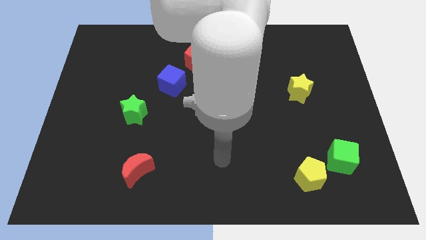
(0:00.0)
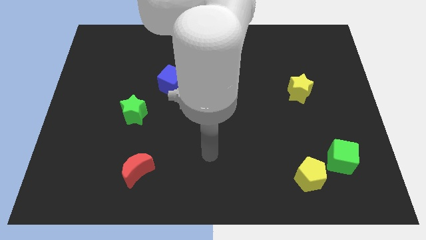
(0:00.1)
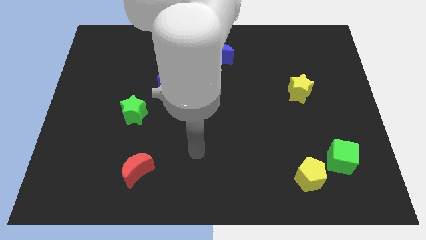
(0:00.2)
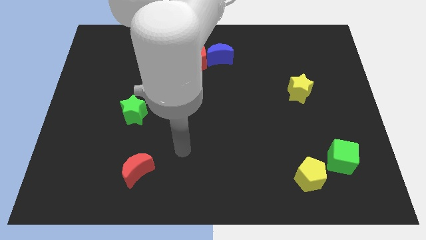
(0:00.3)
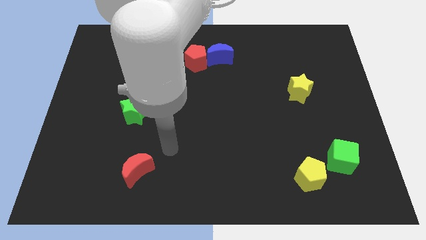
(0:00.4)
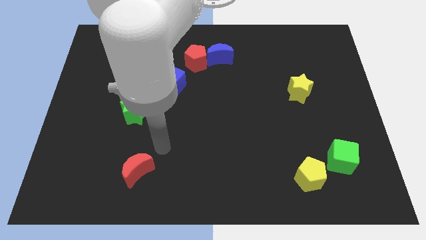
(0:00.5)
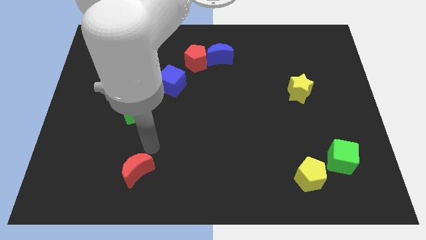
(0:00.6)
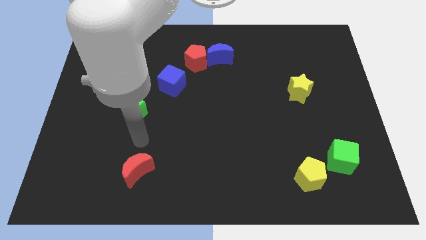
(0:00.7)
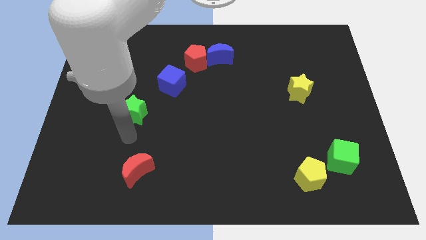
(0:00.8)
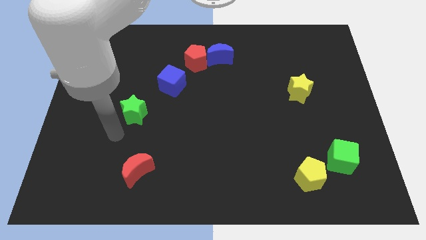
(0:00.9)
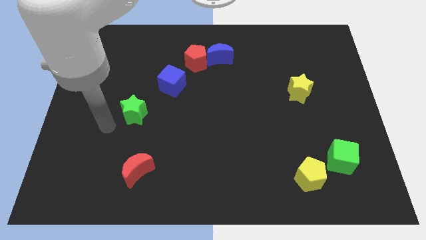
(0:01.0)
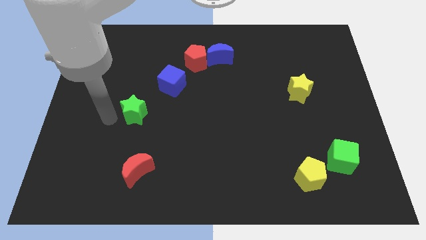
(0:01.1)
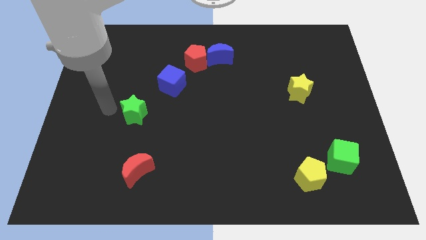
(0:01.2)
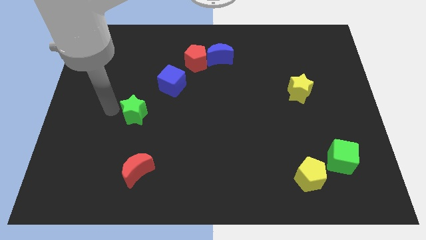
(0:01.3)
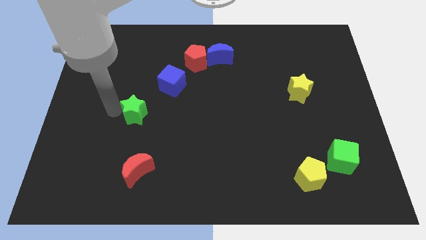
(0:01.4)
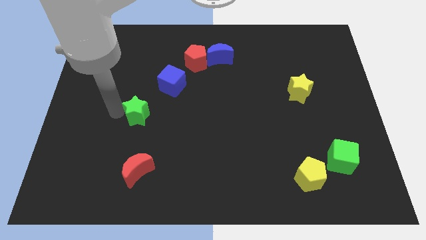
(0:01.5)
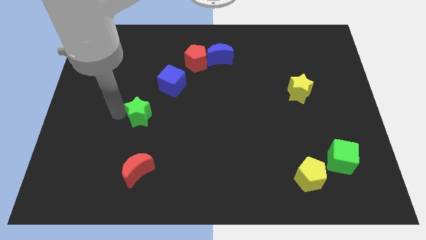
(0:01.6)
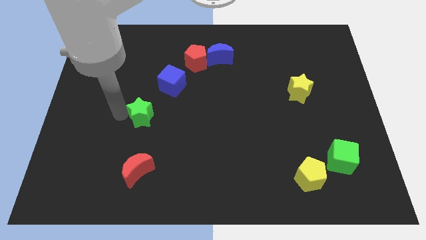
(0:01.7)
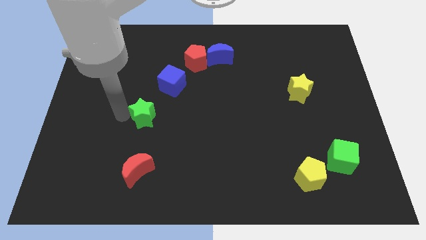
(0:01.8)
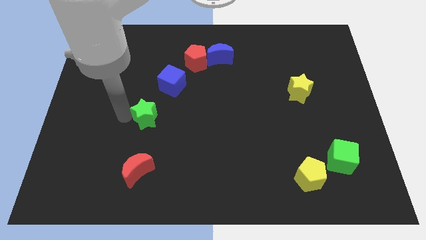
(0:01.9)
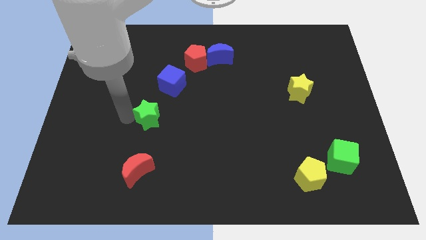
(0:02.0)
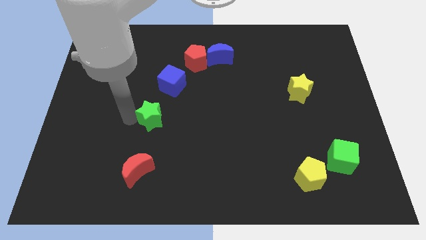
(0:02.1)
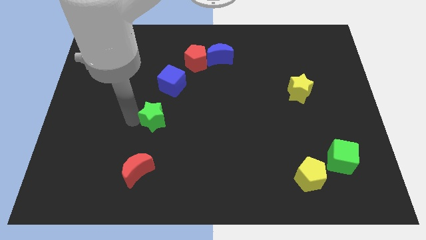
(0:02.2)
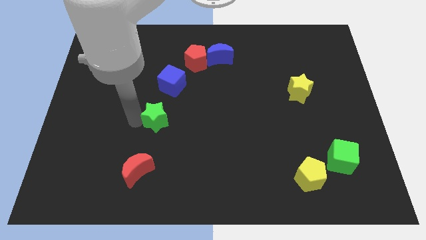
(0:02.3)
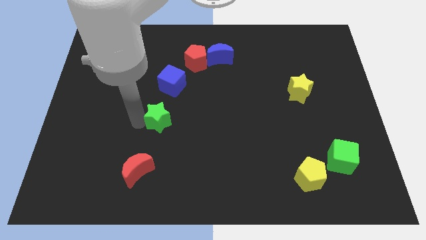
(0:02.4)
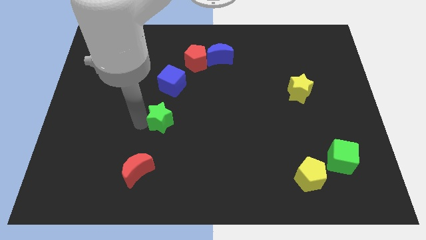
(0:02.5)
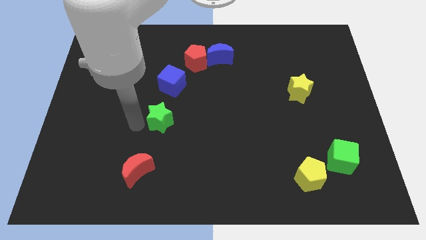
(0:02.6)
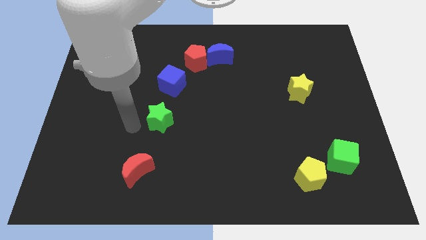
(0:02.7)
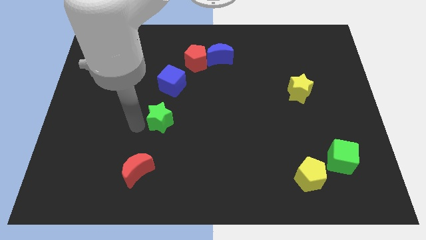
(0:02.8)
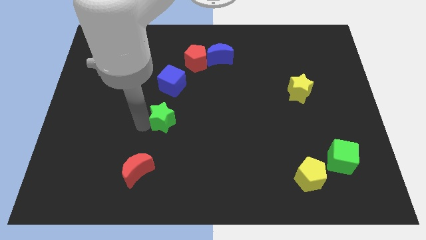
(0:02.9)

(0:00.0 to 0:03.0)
push the green star right somewhat

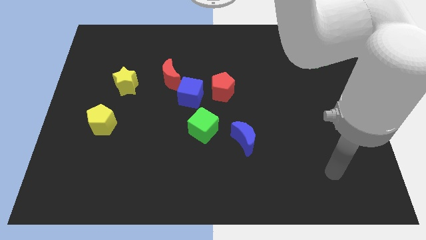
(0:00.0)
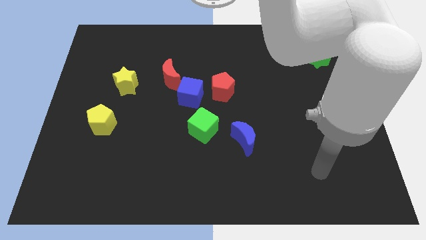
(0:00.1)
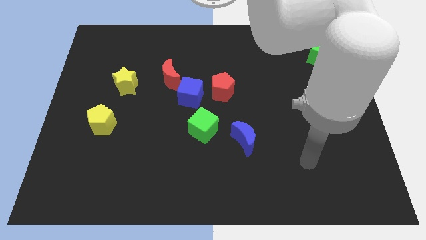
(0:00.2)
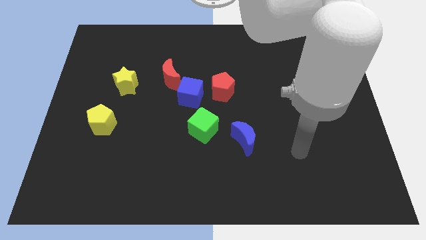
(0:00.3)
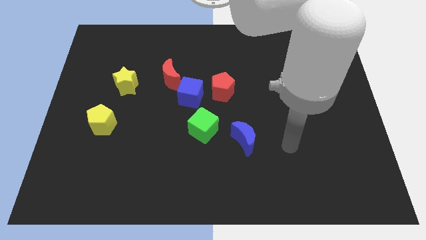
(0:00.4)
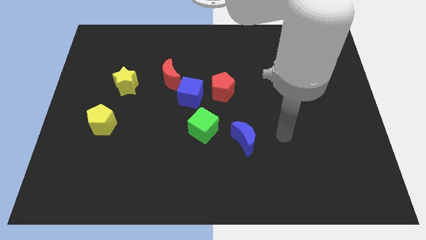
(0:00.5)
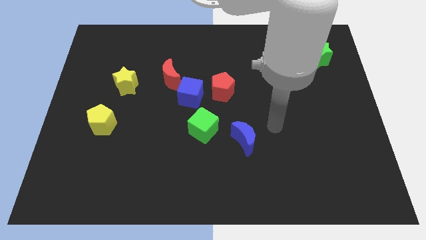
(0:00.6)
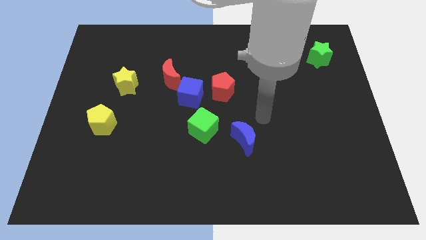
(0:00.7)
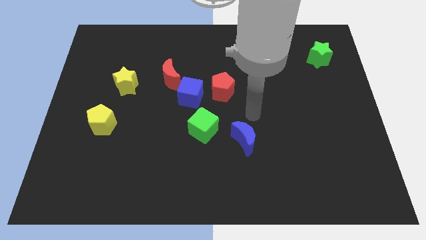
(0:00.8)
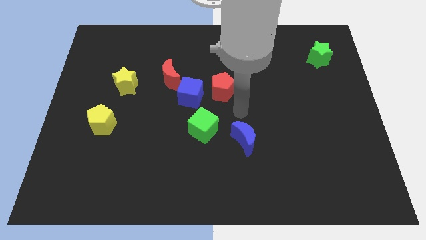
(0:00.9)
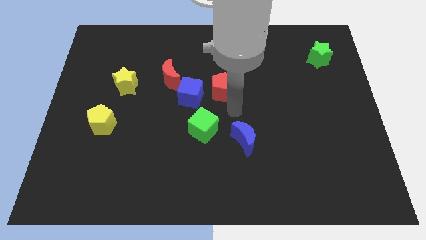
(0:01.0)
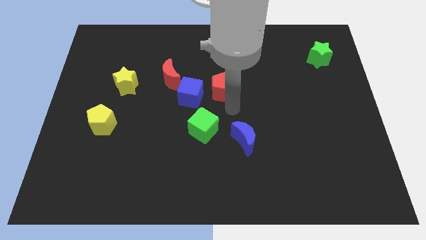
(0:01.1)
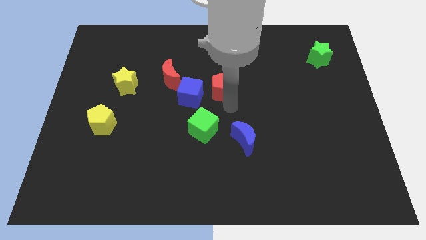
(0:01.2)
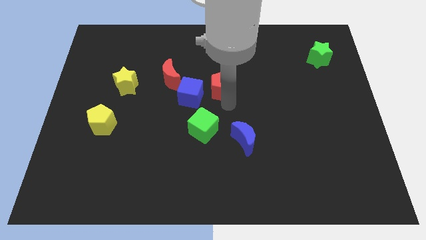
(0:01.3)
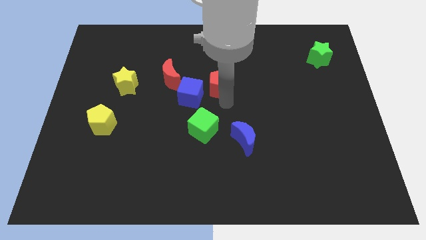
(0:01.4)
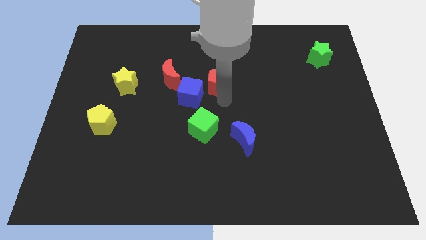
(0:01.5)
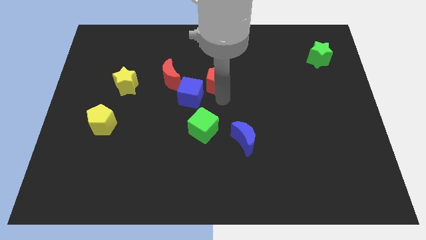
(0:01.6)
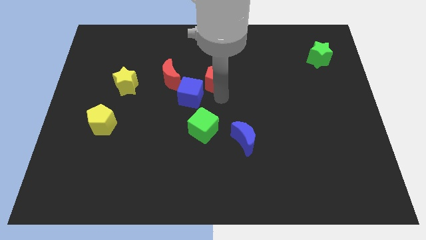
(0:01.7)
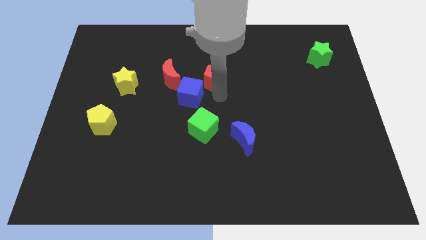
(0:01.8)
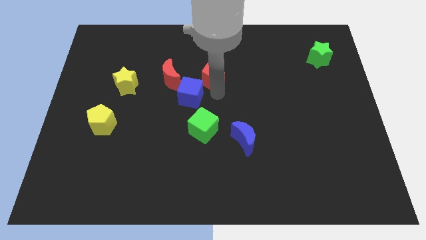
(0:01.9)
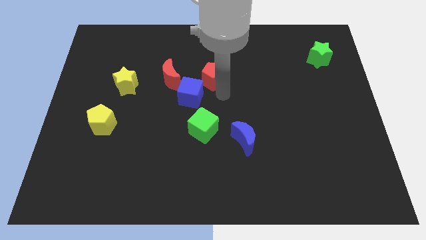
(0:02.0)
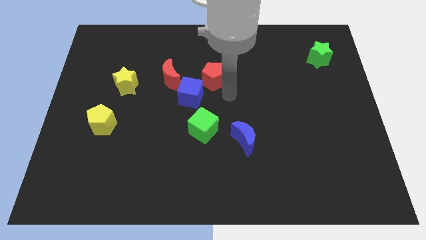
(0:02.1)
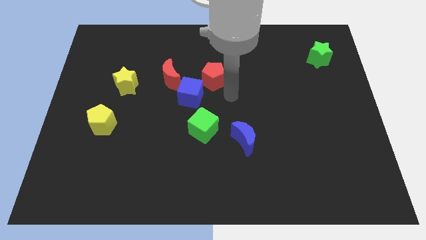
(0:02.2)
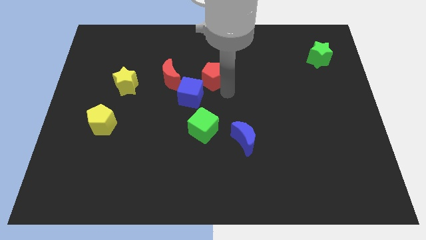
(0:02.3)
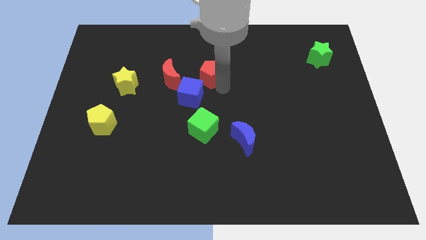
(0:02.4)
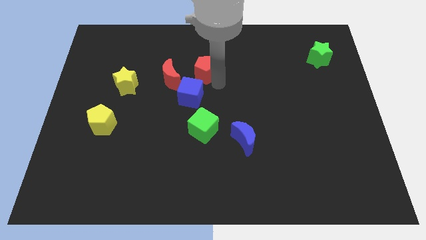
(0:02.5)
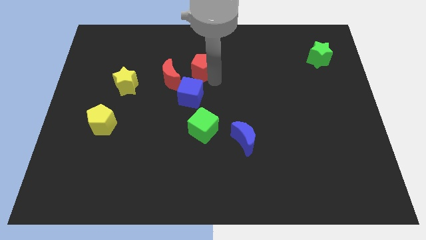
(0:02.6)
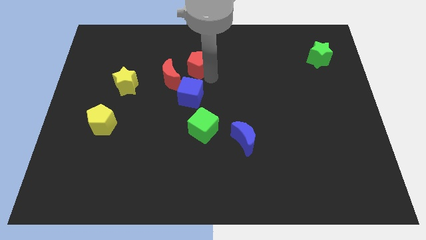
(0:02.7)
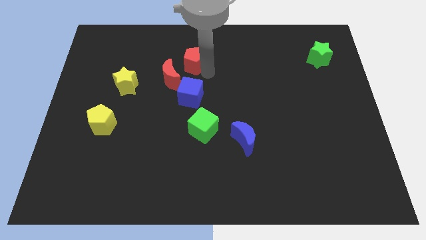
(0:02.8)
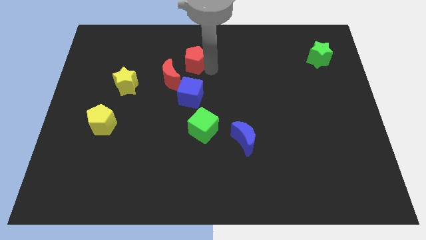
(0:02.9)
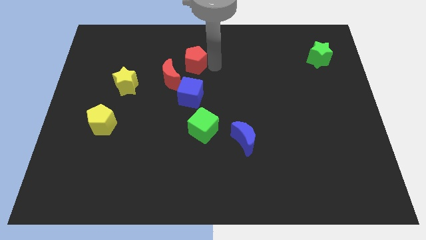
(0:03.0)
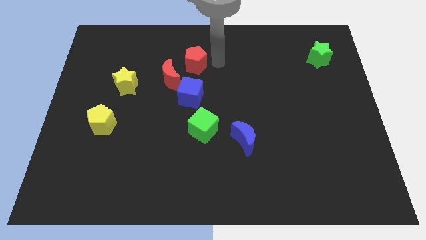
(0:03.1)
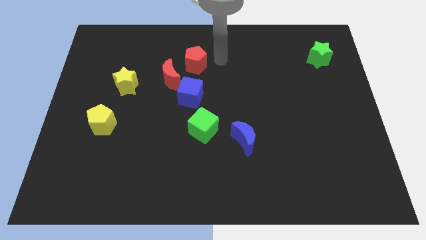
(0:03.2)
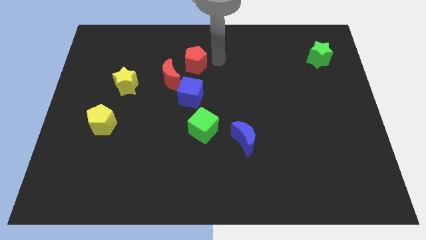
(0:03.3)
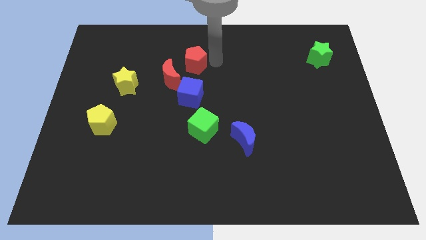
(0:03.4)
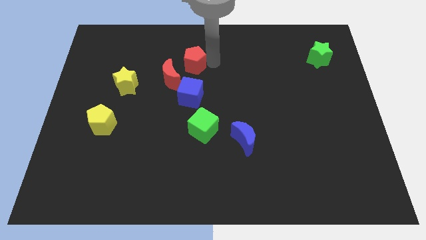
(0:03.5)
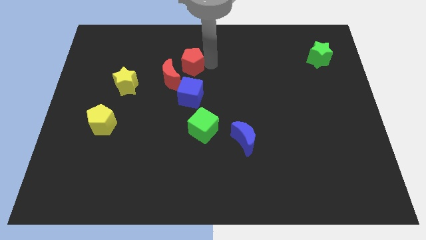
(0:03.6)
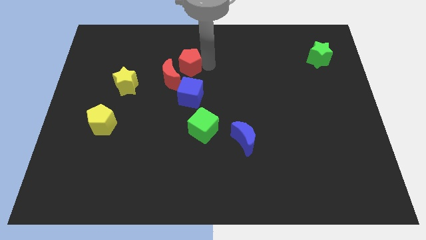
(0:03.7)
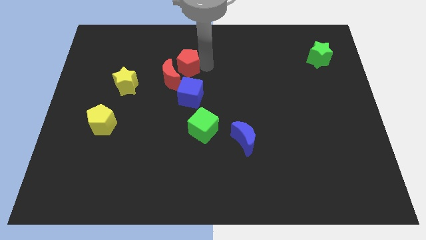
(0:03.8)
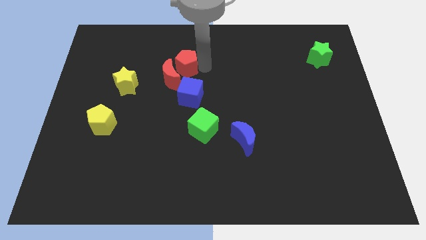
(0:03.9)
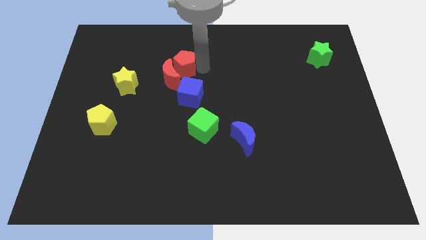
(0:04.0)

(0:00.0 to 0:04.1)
push the red pentagon a bit to the left

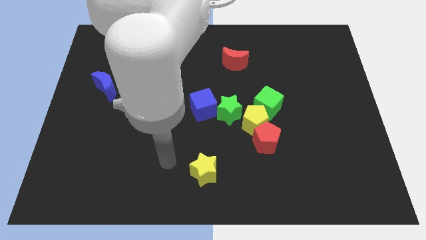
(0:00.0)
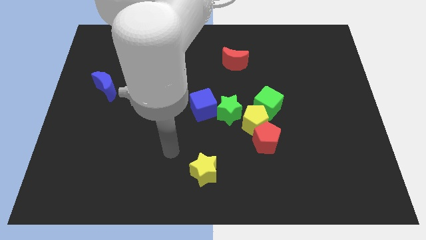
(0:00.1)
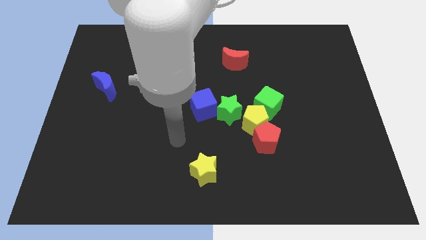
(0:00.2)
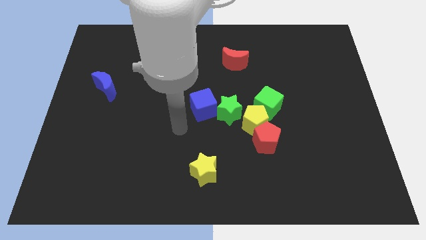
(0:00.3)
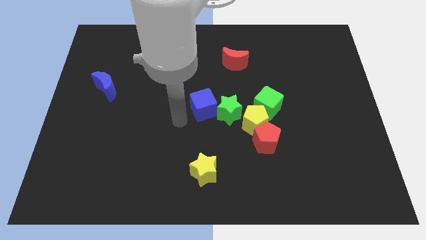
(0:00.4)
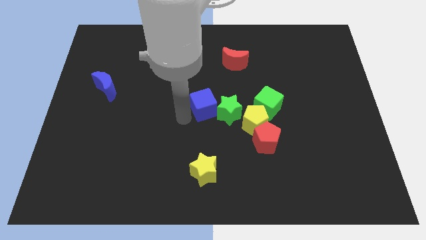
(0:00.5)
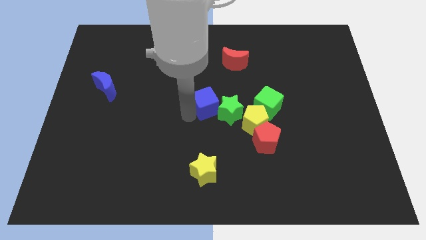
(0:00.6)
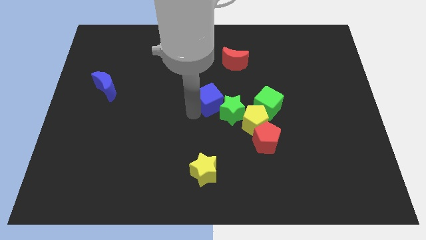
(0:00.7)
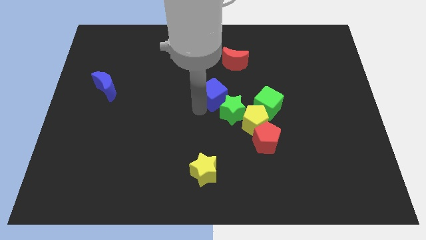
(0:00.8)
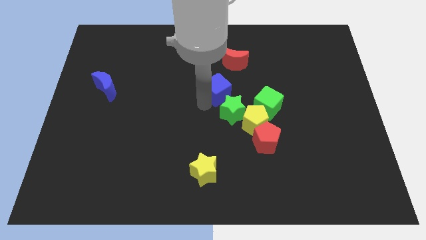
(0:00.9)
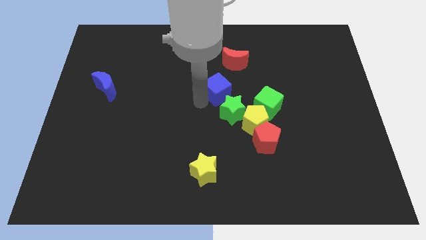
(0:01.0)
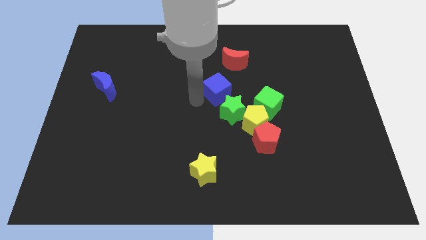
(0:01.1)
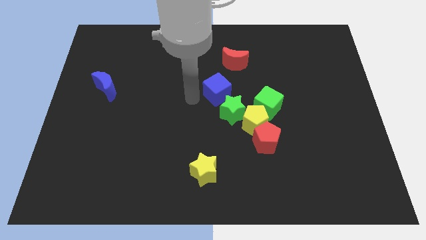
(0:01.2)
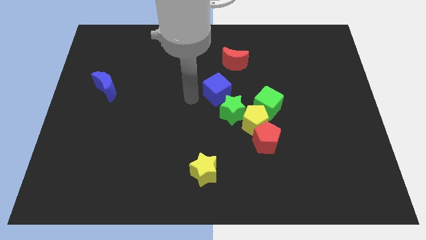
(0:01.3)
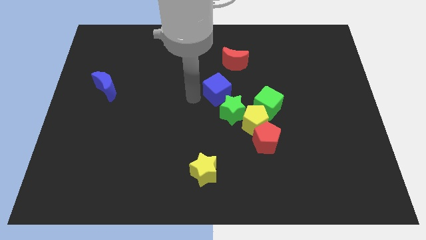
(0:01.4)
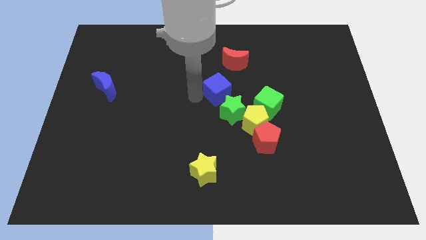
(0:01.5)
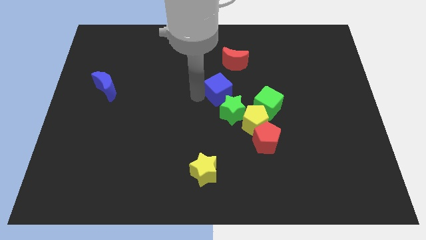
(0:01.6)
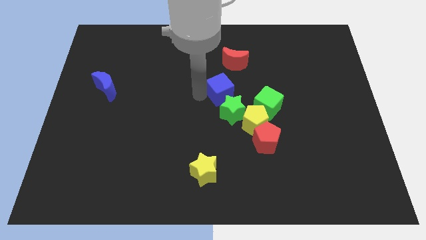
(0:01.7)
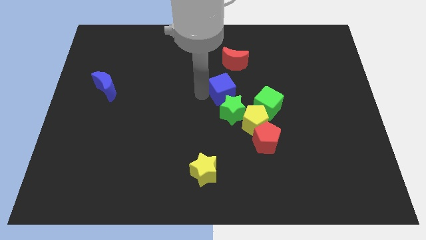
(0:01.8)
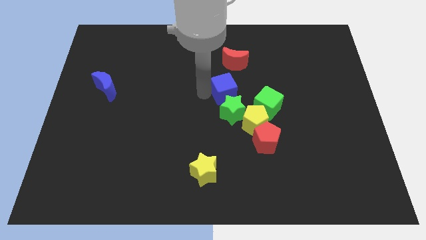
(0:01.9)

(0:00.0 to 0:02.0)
move the blue cube somewhat up and right diagonally
